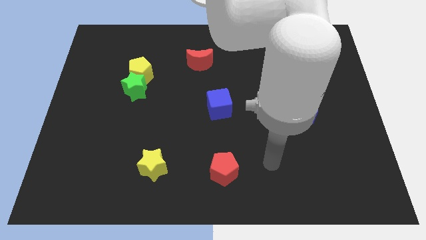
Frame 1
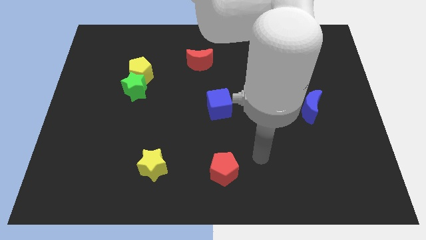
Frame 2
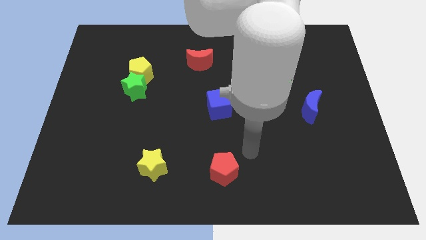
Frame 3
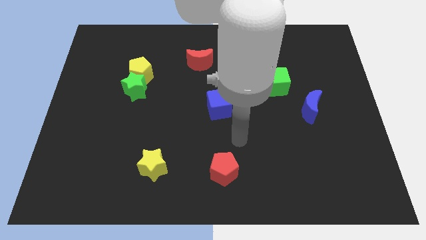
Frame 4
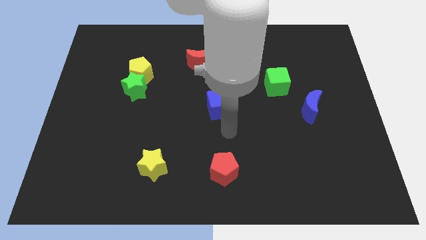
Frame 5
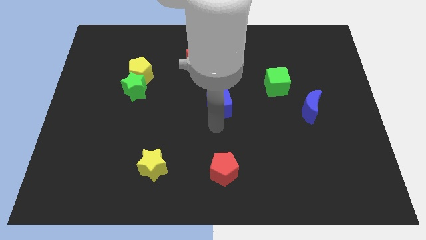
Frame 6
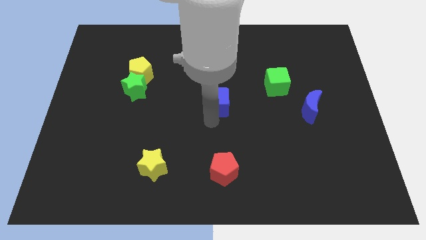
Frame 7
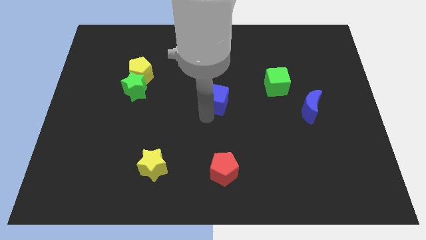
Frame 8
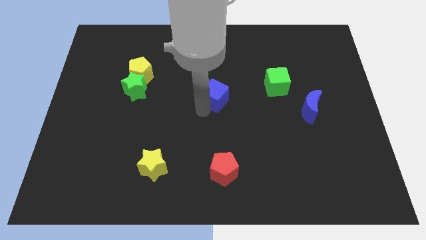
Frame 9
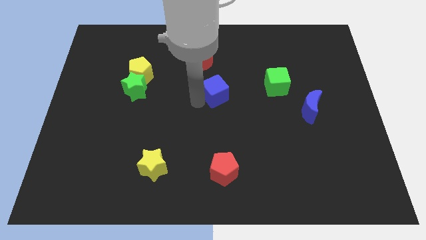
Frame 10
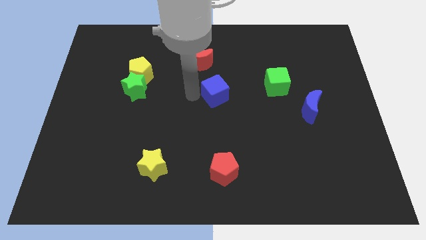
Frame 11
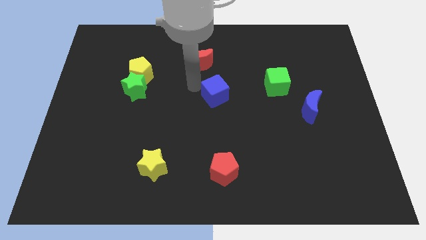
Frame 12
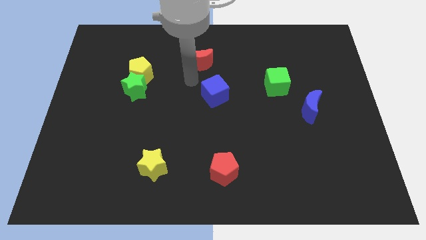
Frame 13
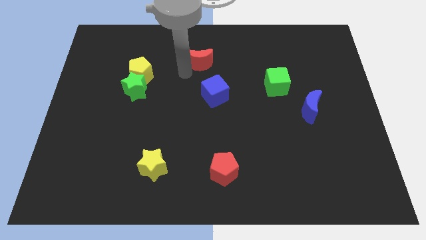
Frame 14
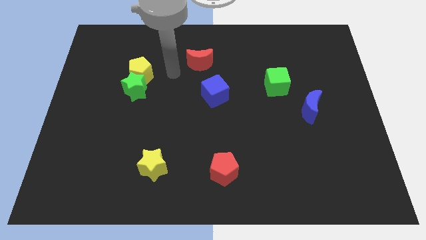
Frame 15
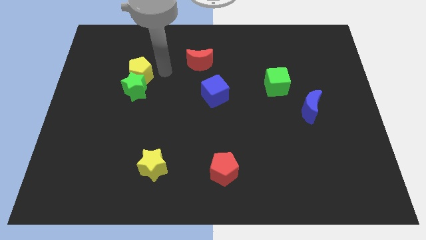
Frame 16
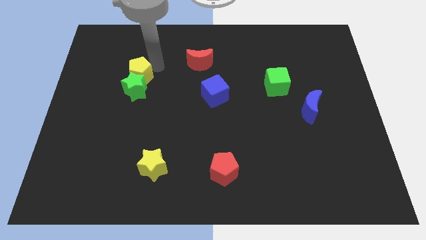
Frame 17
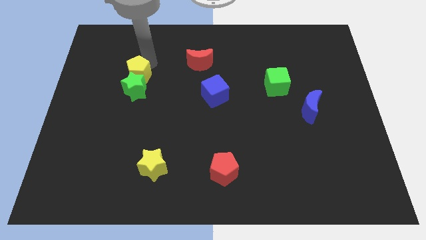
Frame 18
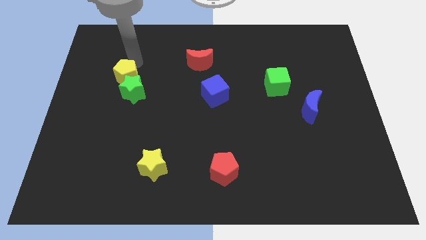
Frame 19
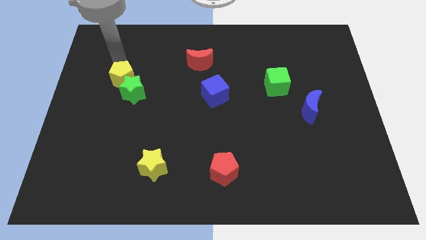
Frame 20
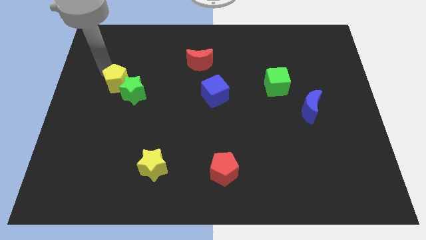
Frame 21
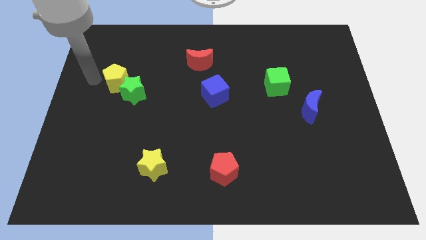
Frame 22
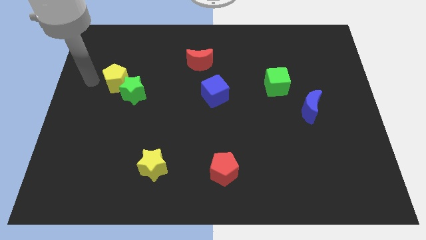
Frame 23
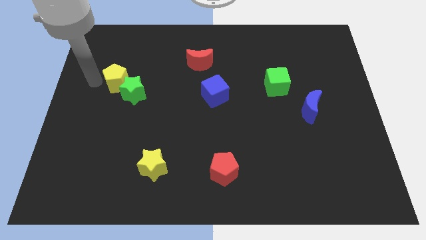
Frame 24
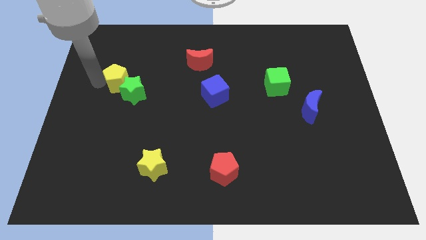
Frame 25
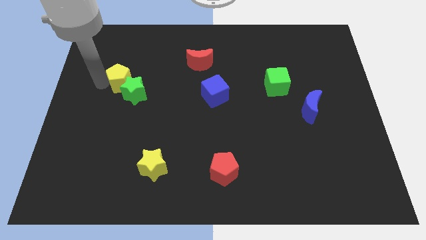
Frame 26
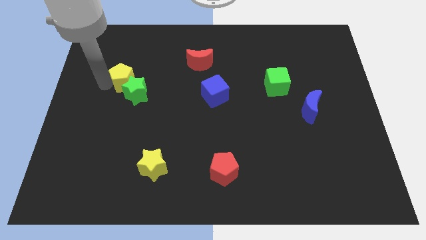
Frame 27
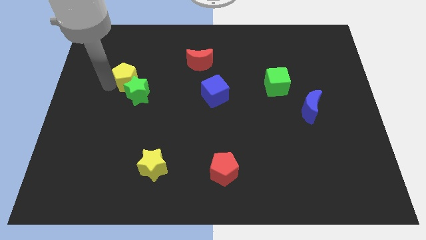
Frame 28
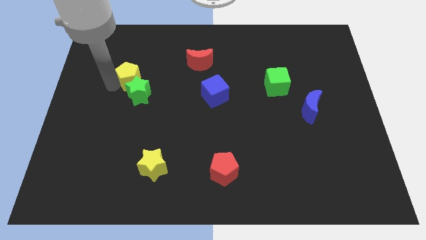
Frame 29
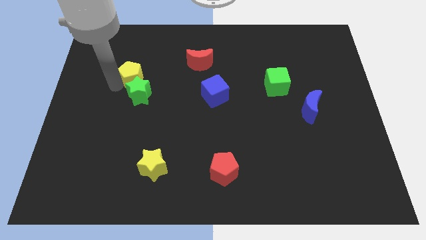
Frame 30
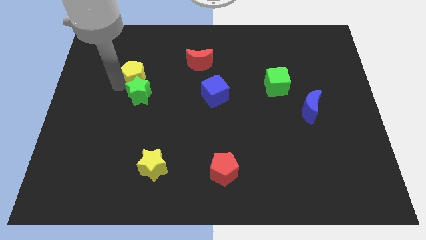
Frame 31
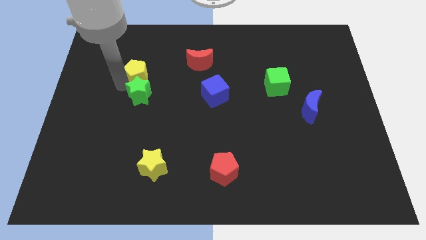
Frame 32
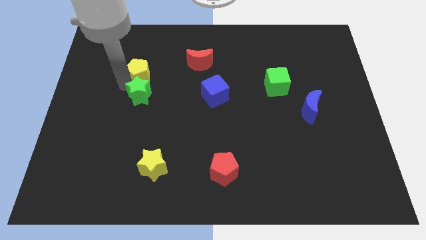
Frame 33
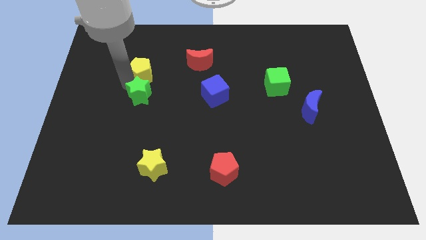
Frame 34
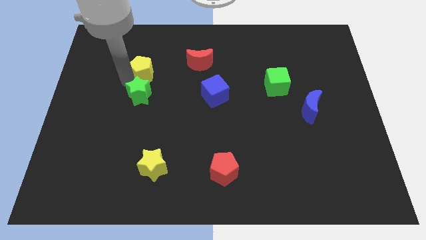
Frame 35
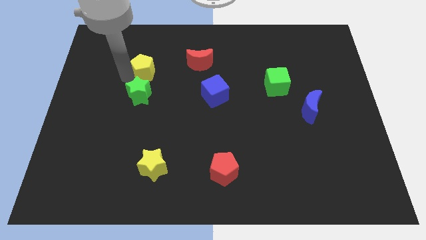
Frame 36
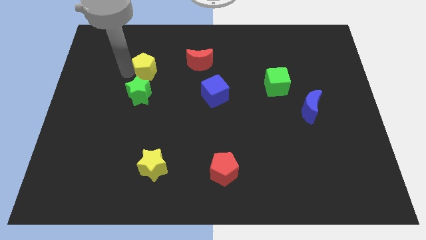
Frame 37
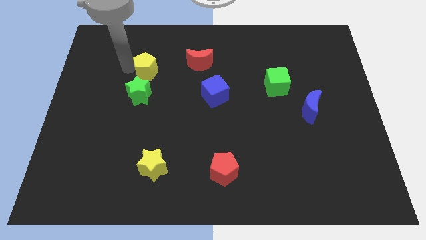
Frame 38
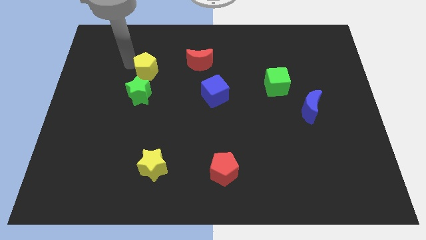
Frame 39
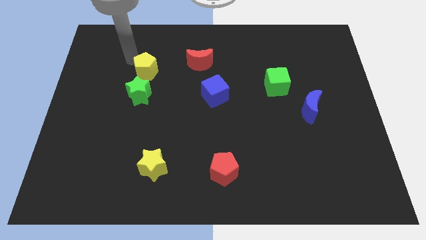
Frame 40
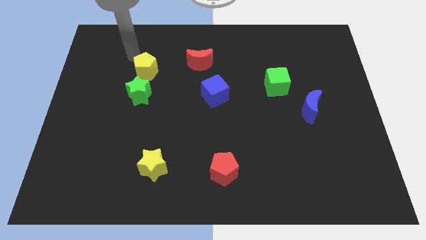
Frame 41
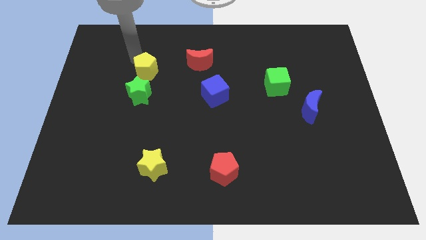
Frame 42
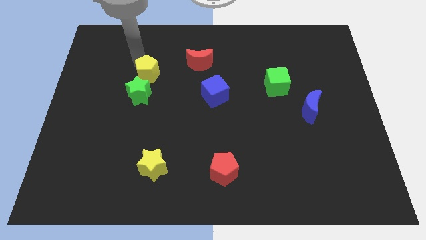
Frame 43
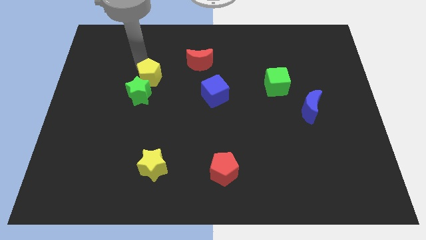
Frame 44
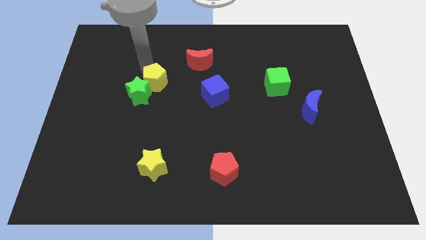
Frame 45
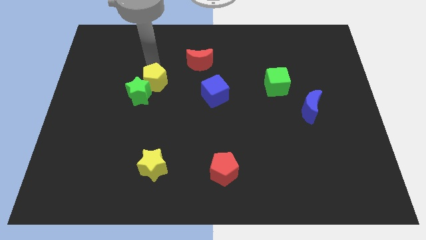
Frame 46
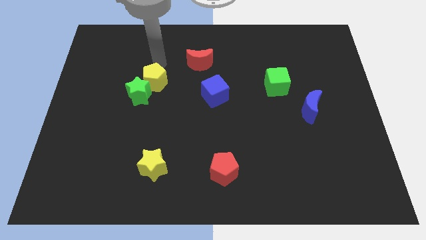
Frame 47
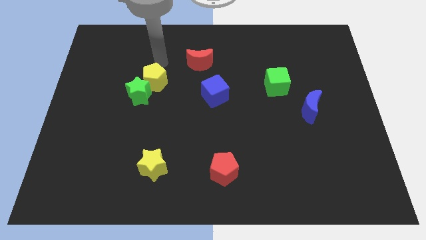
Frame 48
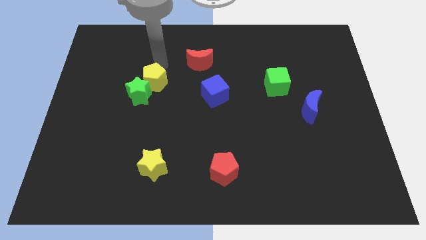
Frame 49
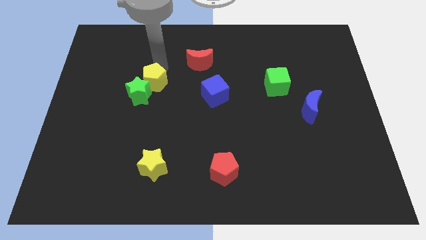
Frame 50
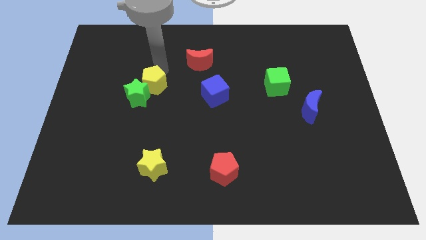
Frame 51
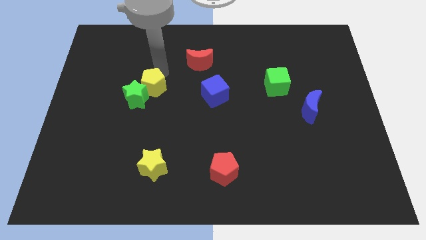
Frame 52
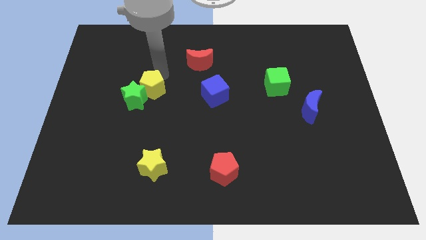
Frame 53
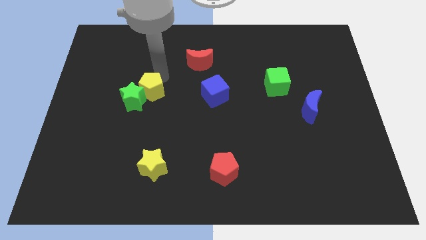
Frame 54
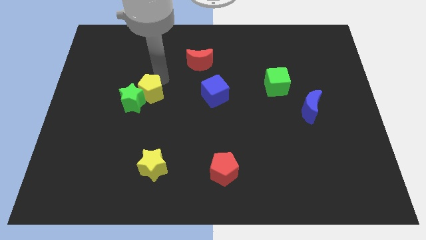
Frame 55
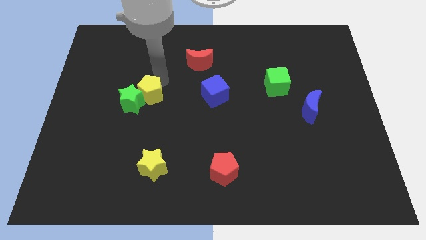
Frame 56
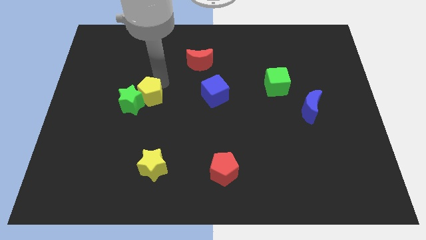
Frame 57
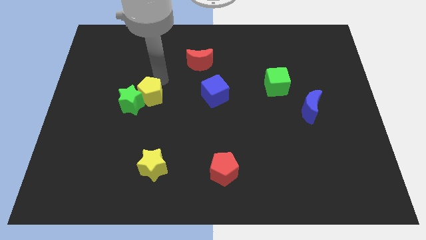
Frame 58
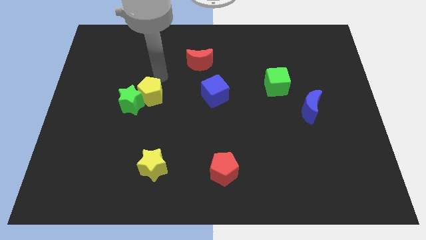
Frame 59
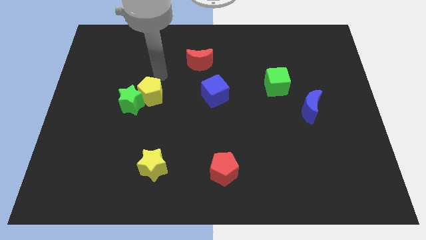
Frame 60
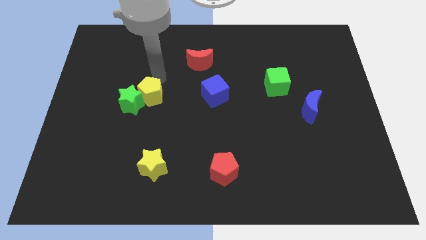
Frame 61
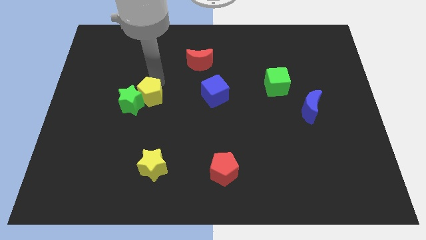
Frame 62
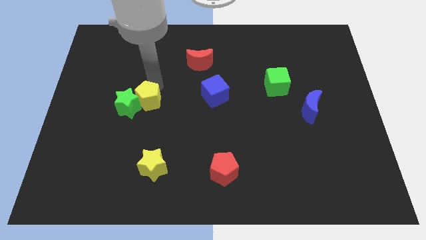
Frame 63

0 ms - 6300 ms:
slightly slide the yellow pentagon down

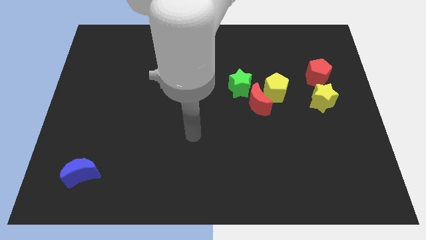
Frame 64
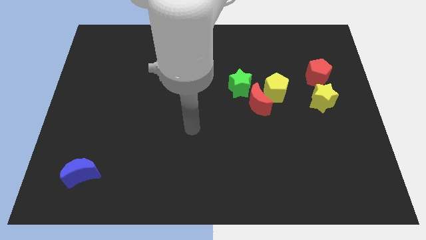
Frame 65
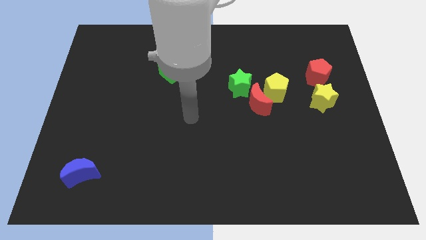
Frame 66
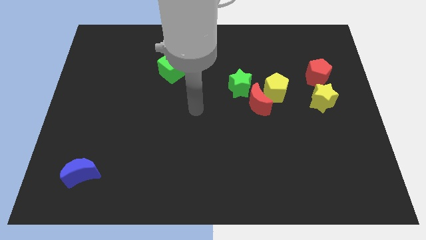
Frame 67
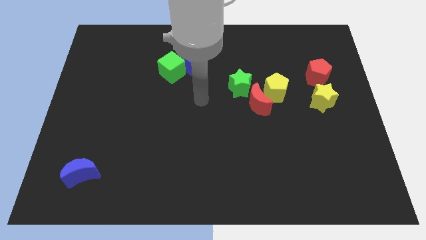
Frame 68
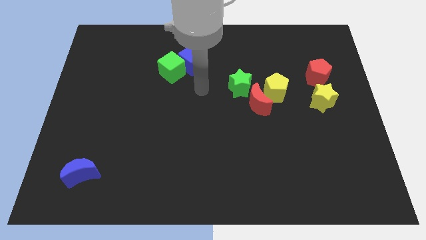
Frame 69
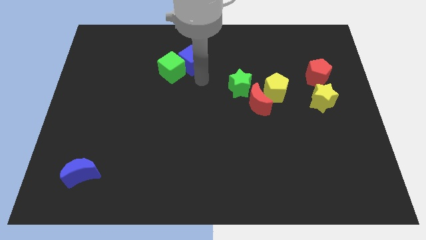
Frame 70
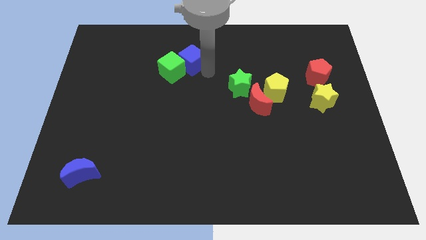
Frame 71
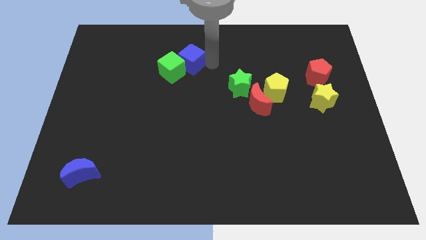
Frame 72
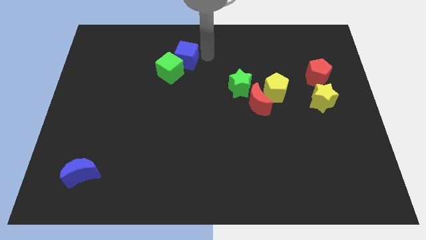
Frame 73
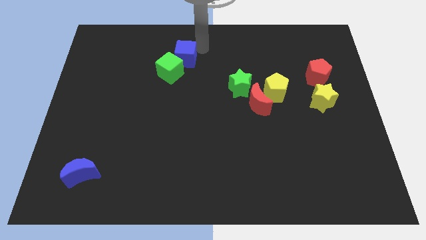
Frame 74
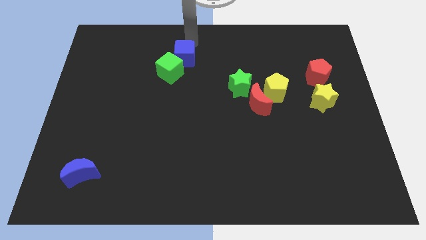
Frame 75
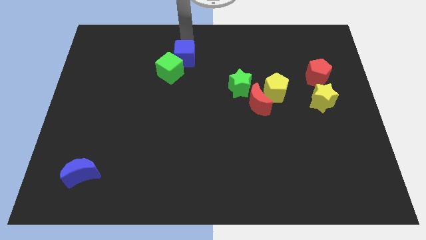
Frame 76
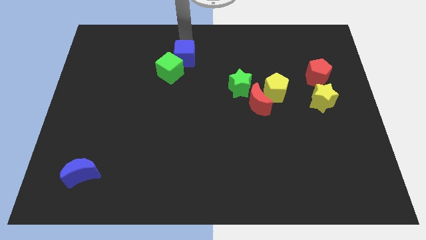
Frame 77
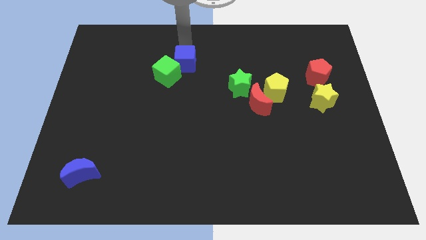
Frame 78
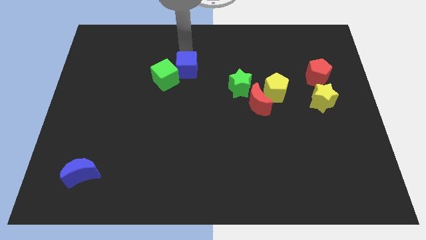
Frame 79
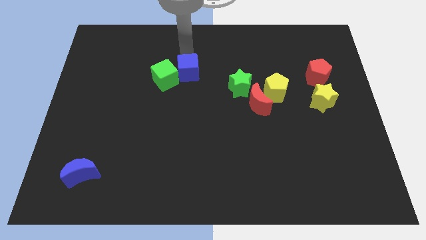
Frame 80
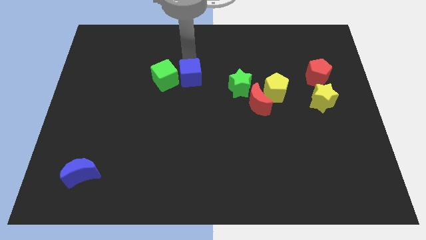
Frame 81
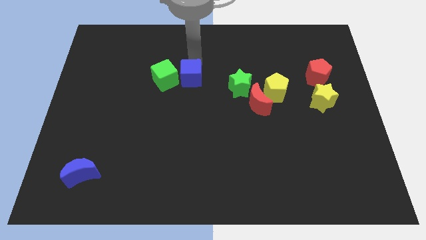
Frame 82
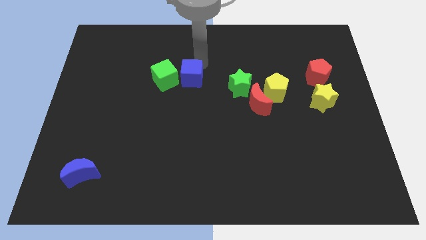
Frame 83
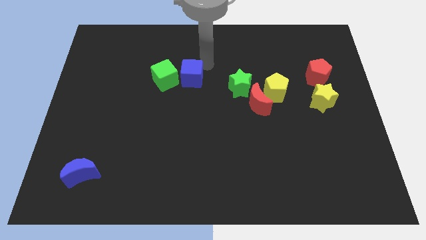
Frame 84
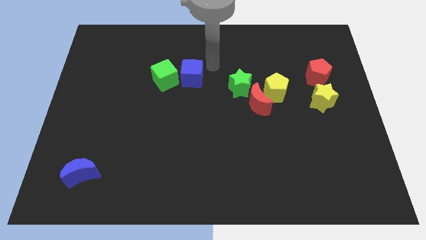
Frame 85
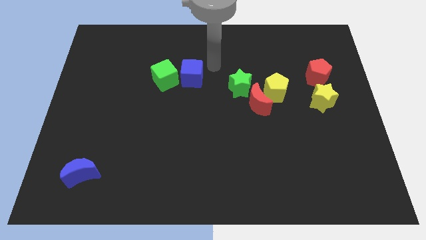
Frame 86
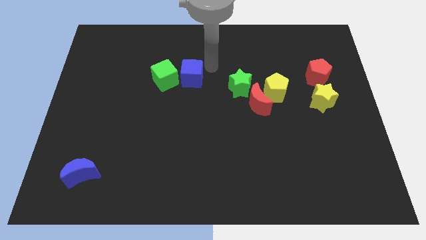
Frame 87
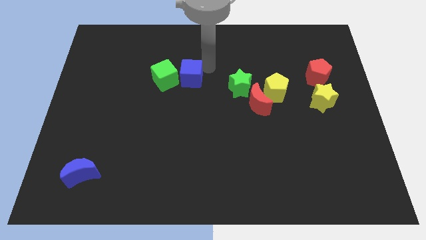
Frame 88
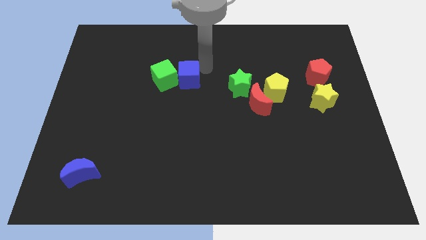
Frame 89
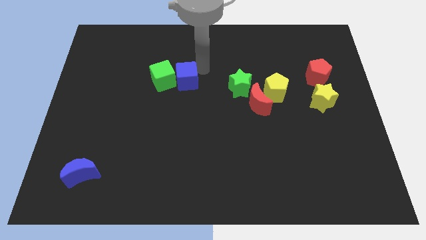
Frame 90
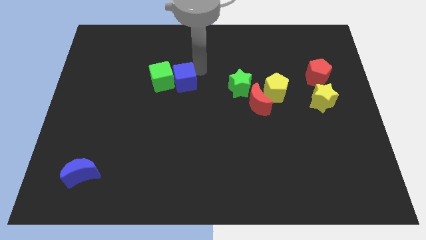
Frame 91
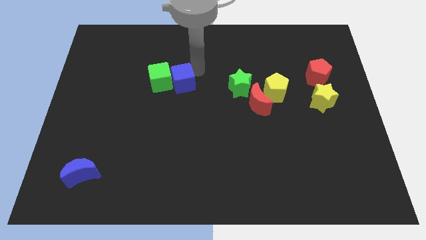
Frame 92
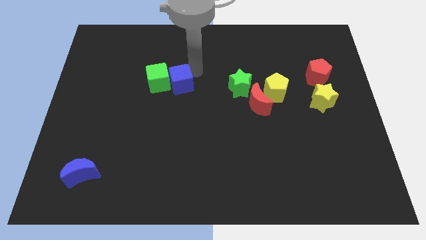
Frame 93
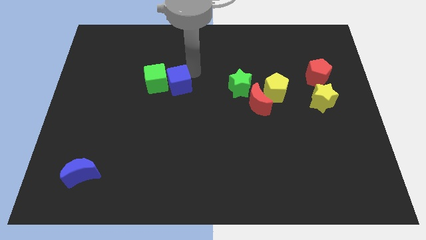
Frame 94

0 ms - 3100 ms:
slightly slide the blue cube downwards and then to the left
